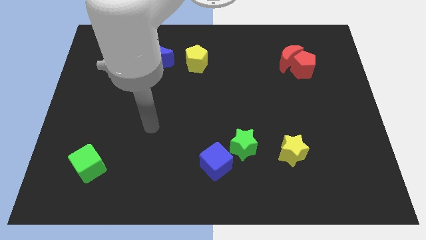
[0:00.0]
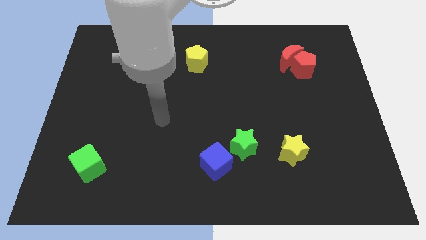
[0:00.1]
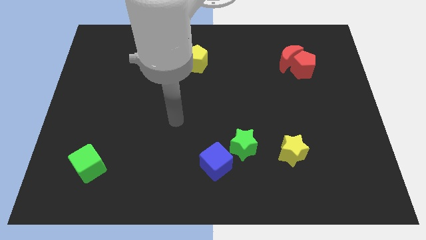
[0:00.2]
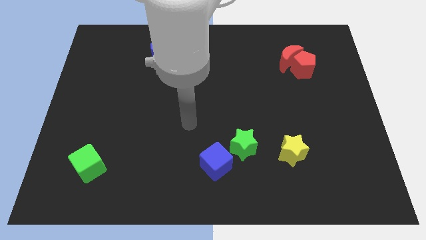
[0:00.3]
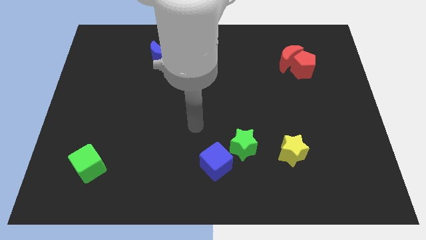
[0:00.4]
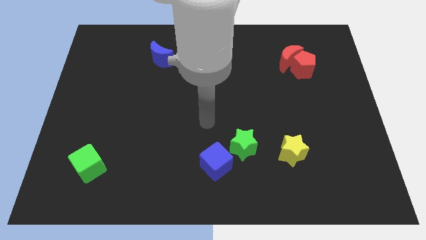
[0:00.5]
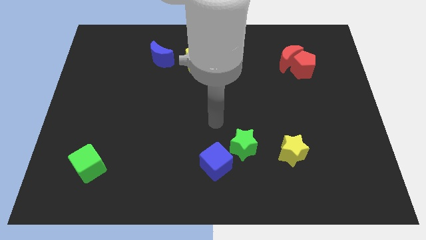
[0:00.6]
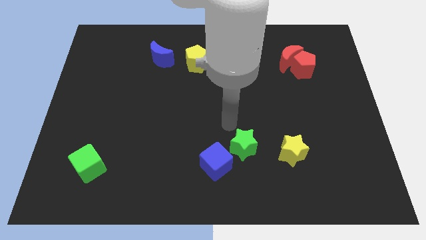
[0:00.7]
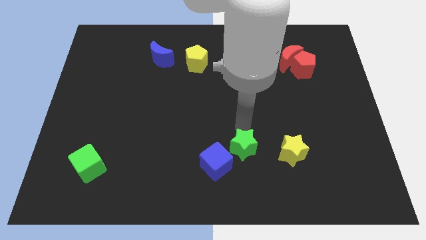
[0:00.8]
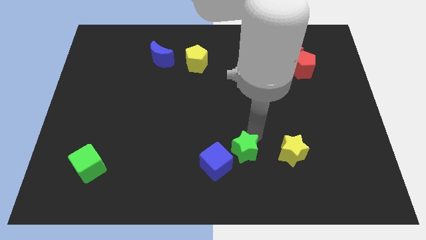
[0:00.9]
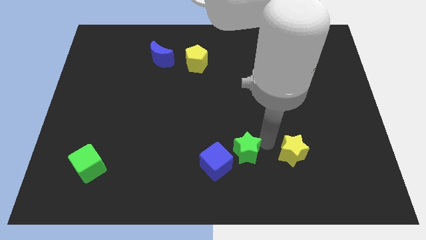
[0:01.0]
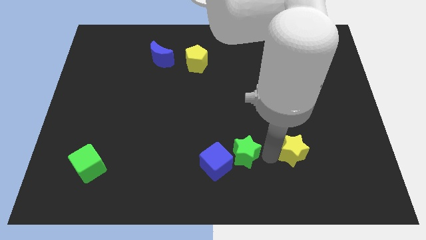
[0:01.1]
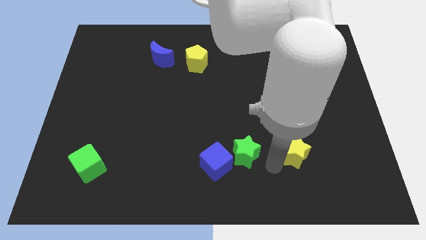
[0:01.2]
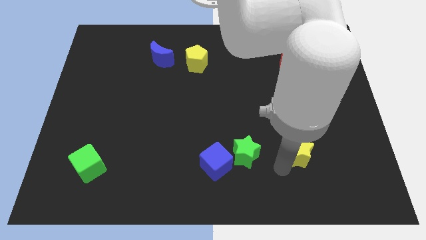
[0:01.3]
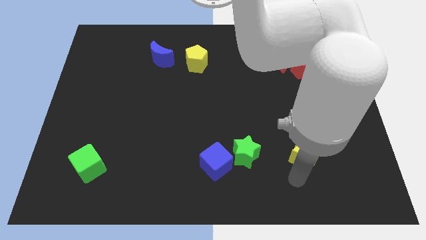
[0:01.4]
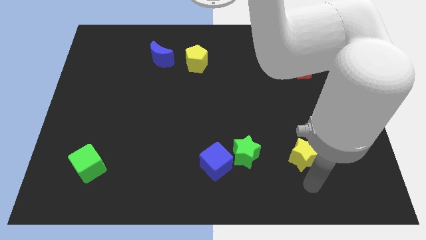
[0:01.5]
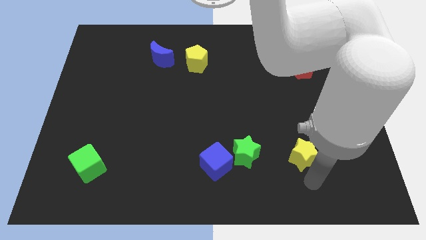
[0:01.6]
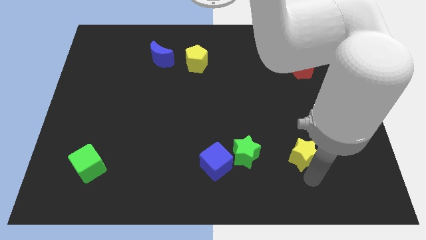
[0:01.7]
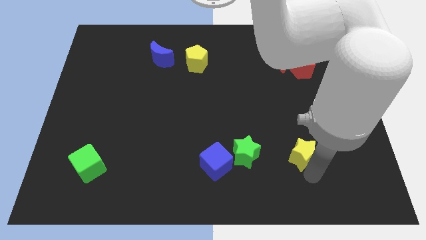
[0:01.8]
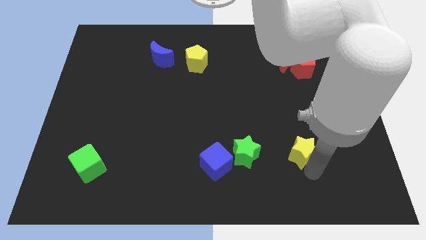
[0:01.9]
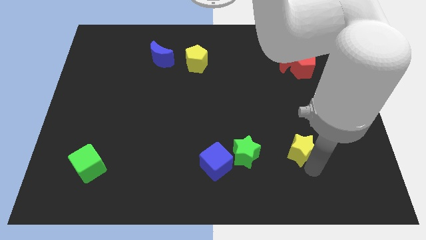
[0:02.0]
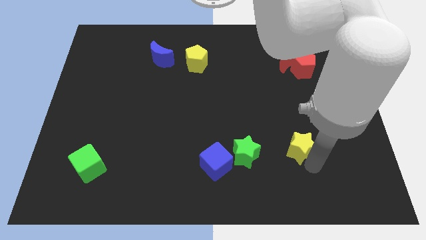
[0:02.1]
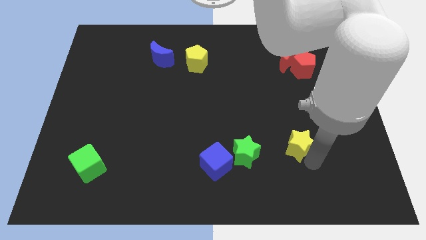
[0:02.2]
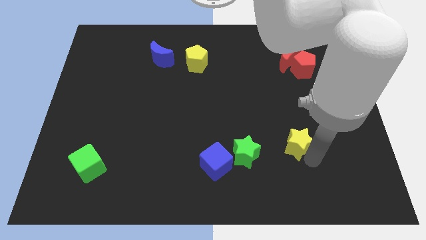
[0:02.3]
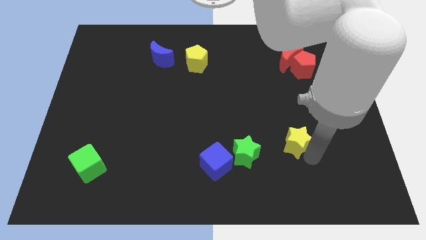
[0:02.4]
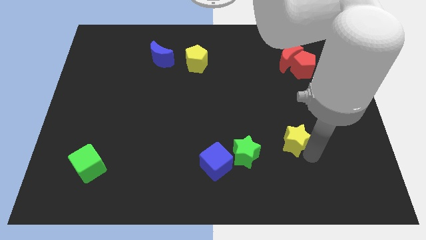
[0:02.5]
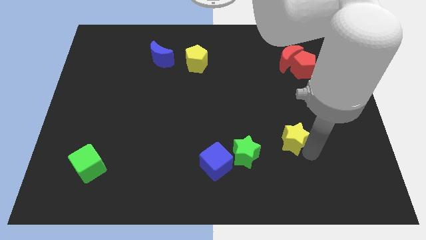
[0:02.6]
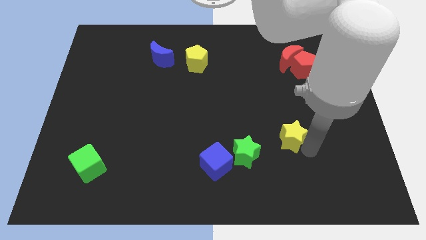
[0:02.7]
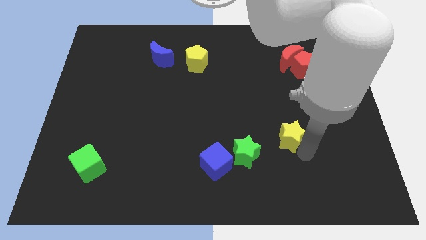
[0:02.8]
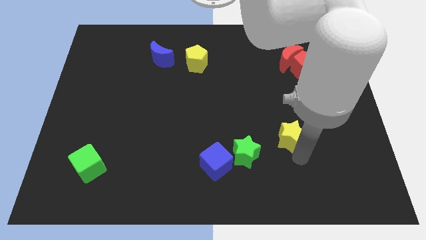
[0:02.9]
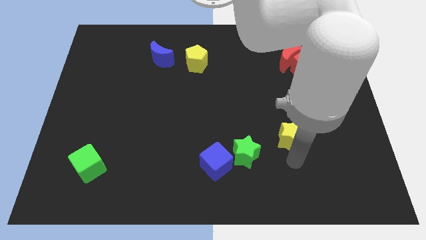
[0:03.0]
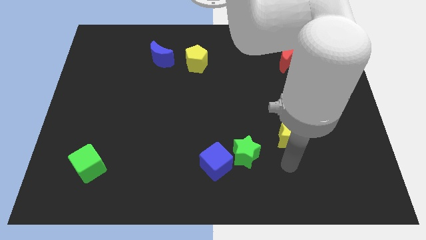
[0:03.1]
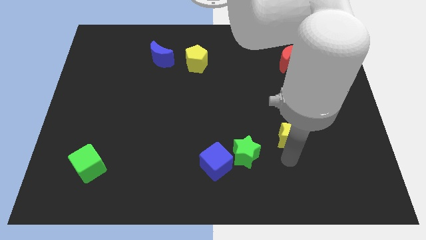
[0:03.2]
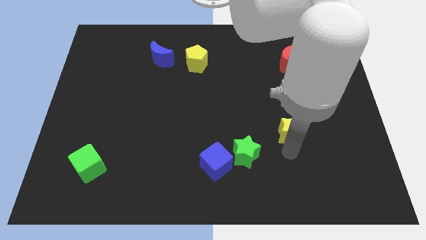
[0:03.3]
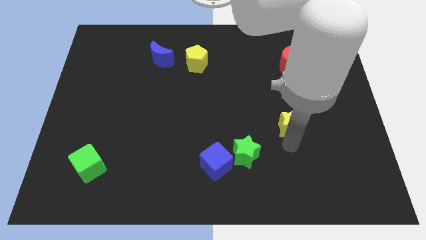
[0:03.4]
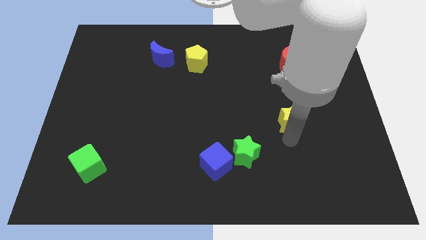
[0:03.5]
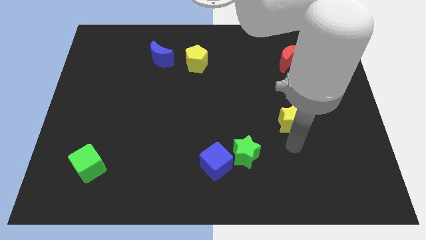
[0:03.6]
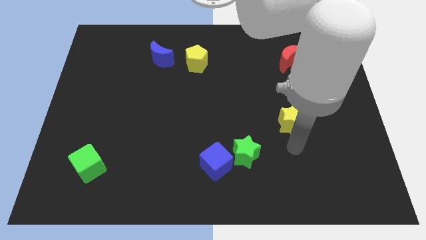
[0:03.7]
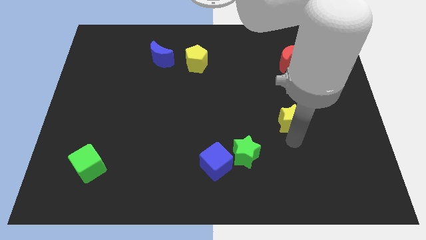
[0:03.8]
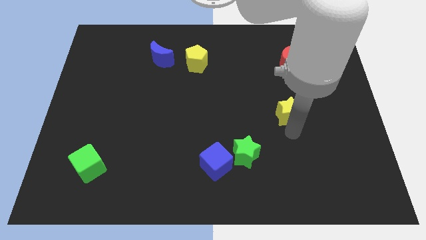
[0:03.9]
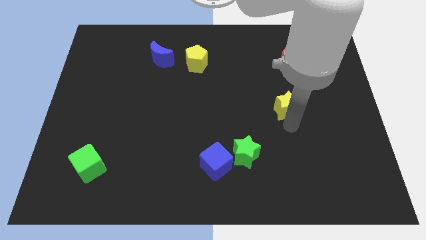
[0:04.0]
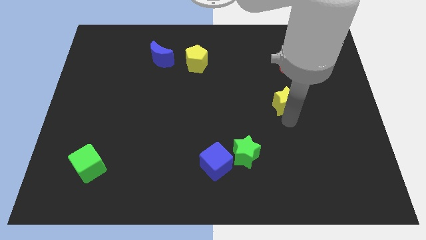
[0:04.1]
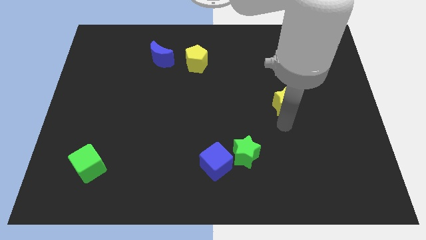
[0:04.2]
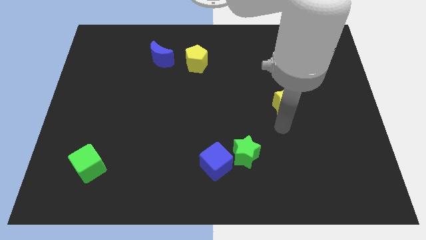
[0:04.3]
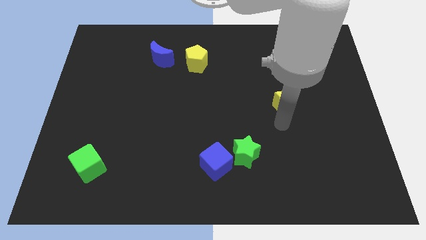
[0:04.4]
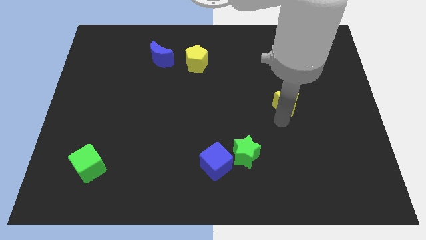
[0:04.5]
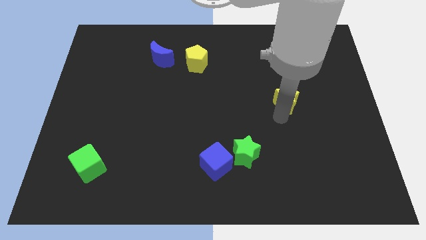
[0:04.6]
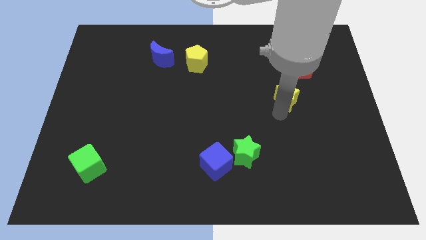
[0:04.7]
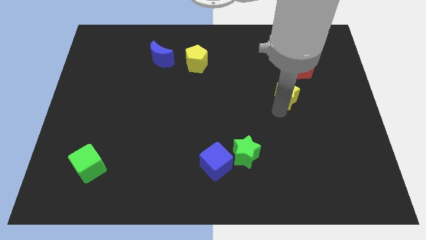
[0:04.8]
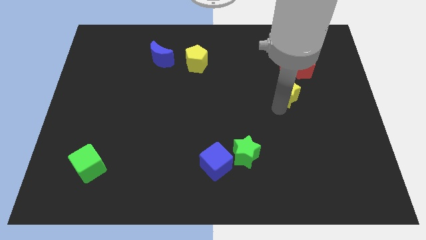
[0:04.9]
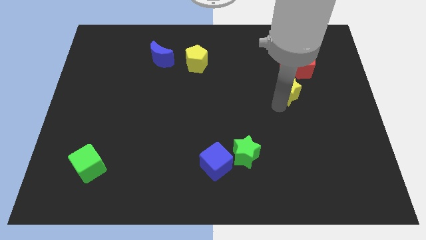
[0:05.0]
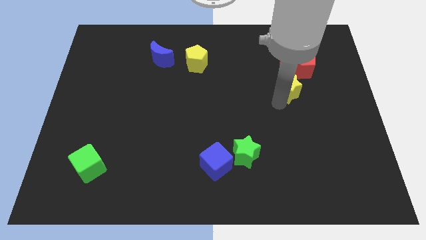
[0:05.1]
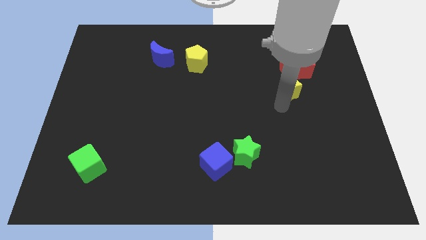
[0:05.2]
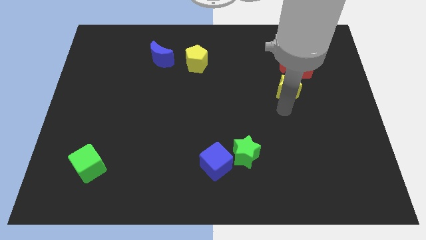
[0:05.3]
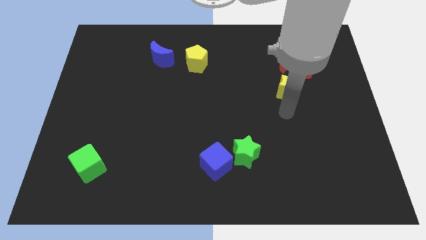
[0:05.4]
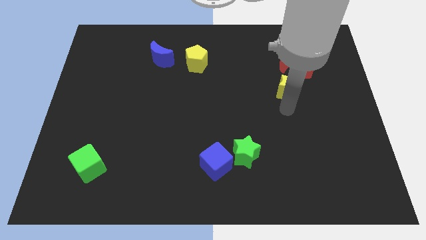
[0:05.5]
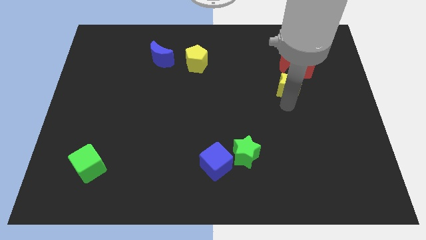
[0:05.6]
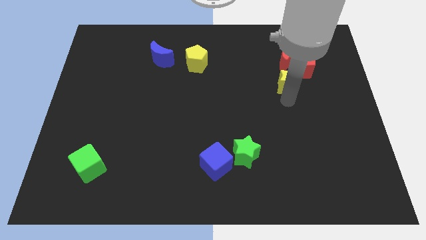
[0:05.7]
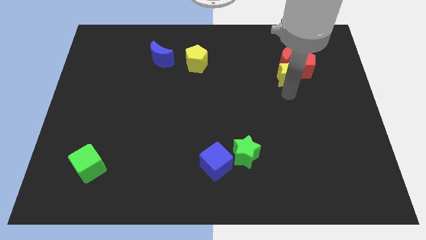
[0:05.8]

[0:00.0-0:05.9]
move the yellow star to the red moon

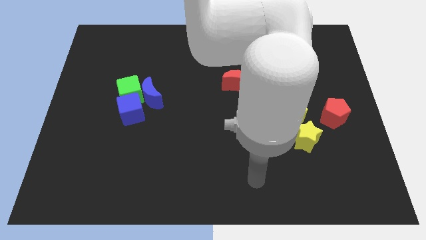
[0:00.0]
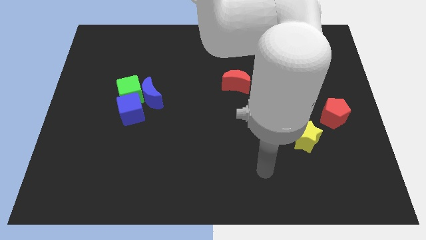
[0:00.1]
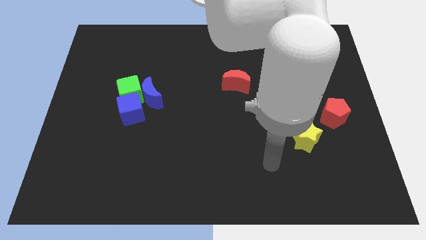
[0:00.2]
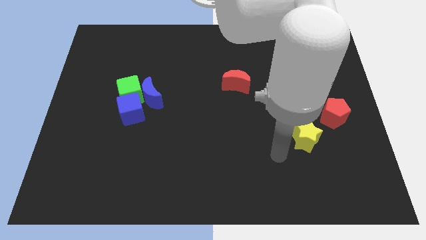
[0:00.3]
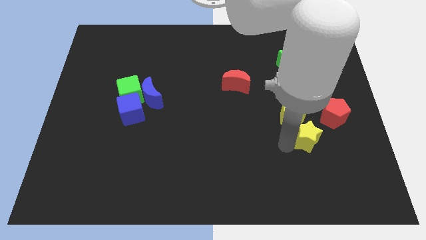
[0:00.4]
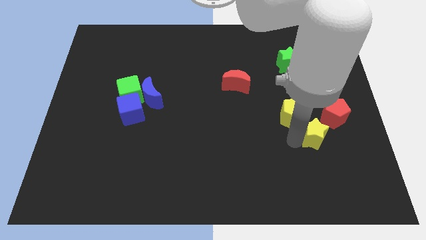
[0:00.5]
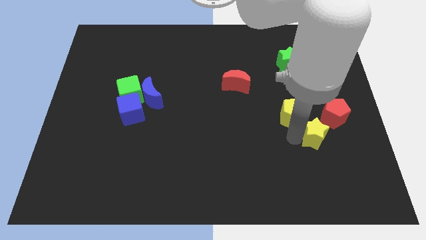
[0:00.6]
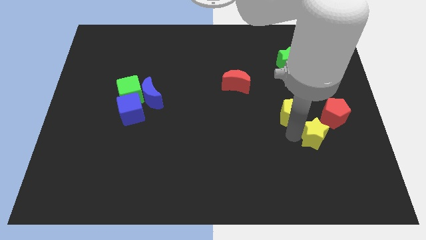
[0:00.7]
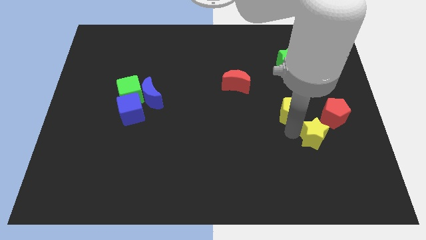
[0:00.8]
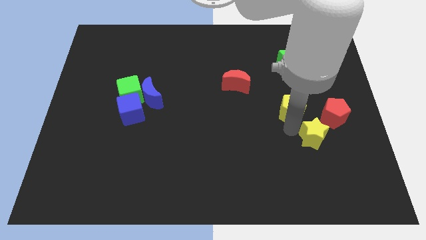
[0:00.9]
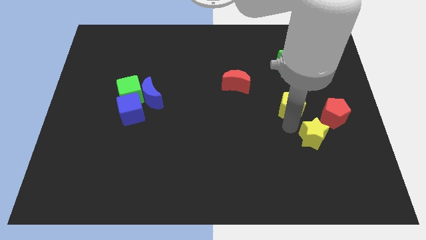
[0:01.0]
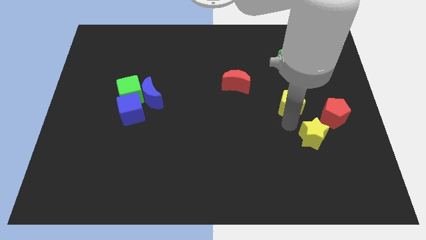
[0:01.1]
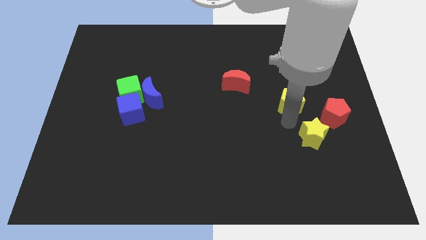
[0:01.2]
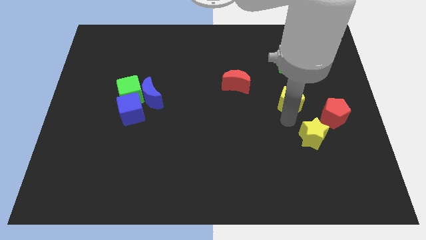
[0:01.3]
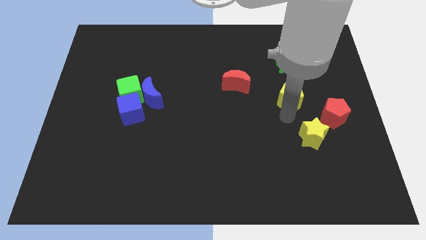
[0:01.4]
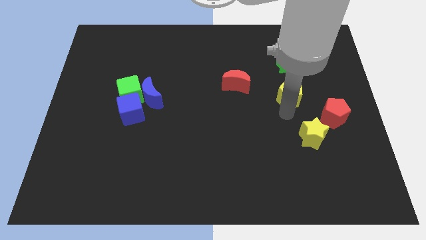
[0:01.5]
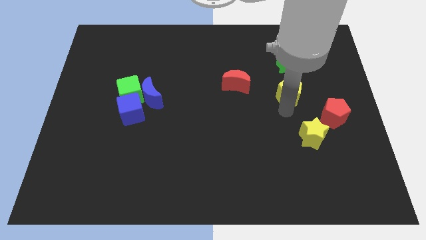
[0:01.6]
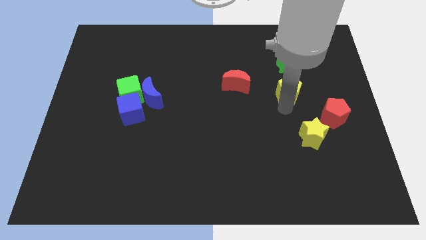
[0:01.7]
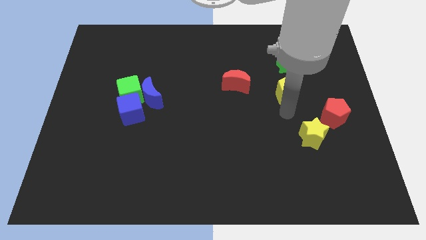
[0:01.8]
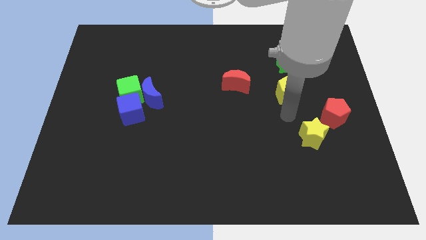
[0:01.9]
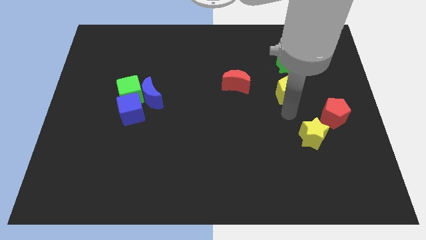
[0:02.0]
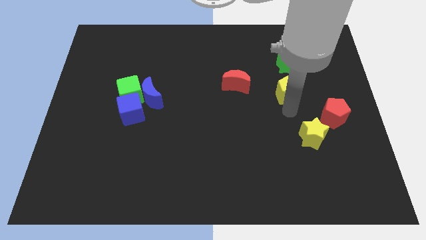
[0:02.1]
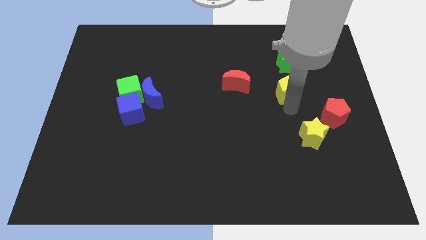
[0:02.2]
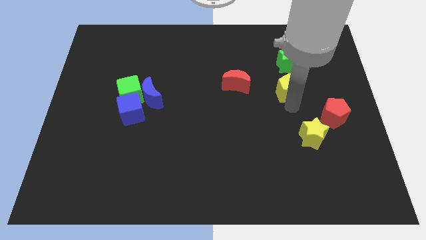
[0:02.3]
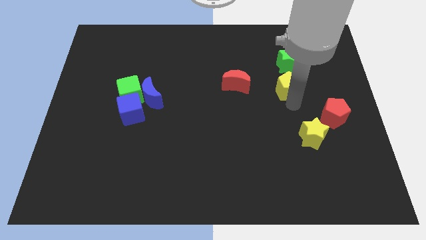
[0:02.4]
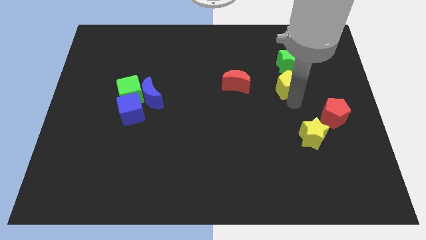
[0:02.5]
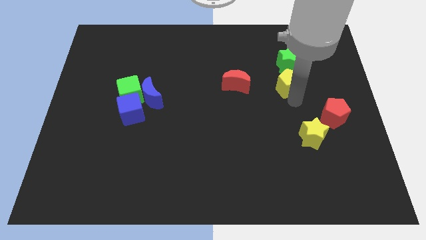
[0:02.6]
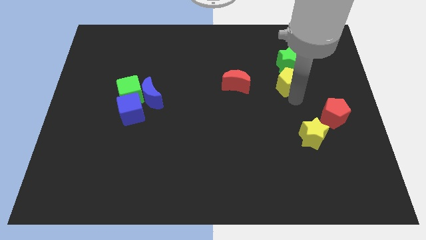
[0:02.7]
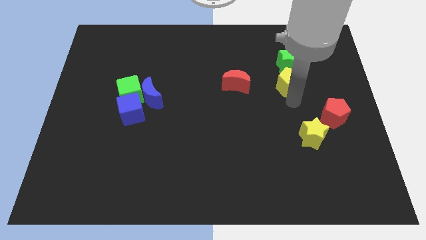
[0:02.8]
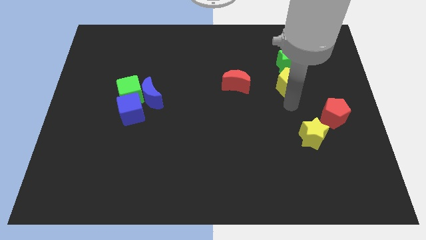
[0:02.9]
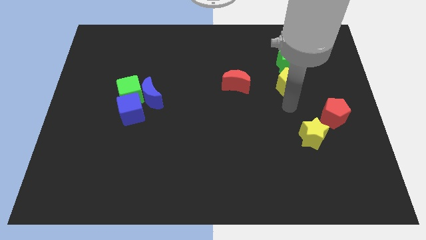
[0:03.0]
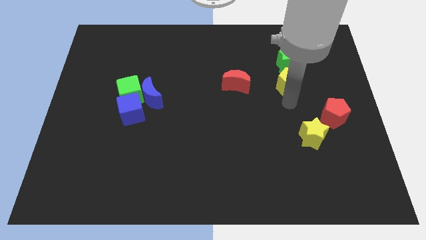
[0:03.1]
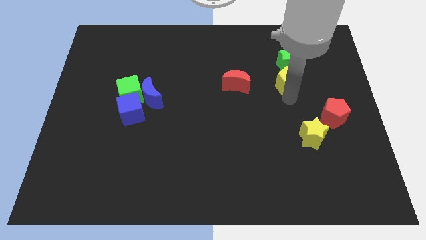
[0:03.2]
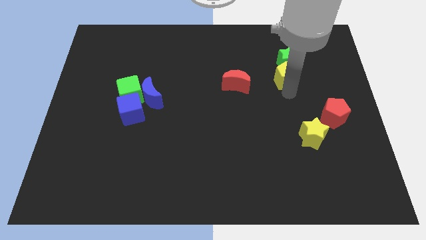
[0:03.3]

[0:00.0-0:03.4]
move the yellow pentagon to the green star
